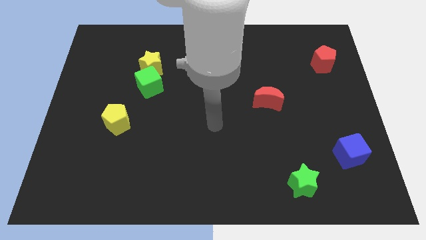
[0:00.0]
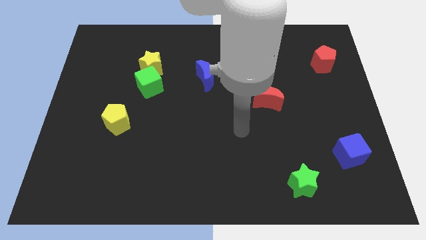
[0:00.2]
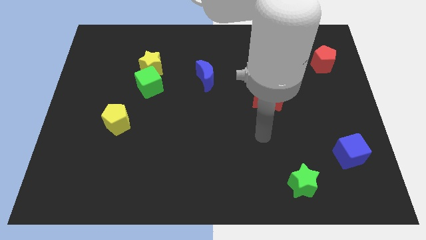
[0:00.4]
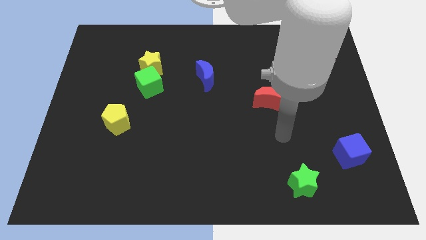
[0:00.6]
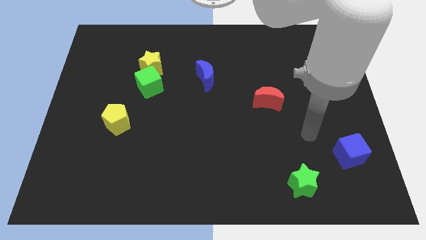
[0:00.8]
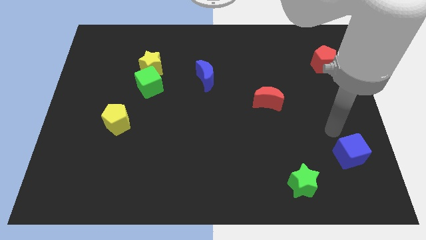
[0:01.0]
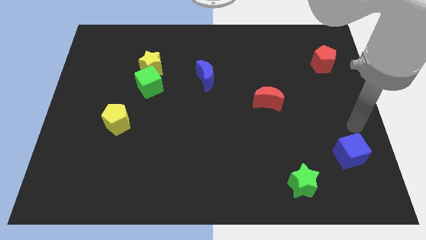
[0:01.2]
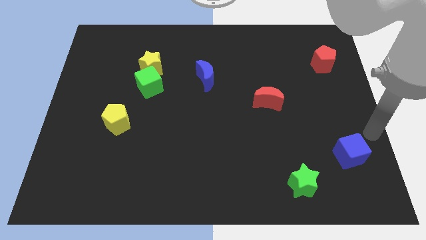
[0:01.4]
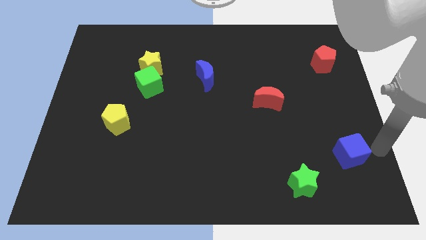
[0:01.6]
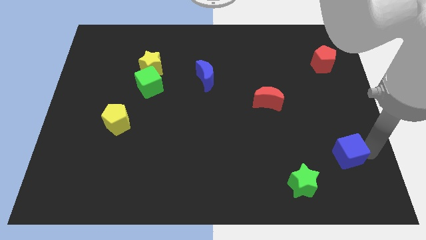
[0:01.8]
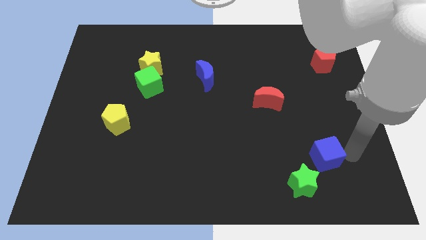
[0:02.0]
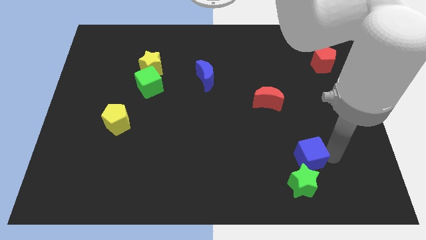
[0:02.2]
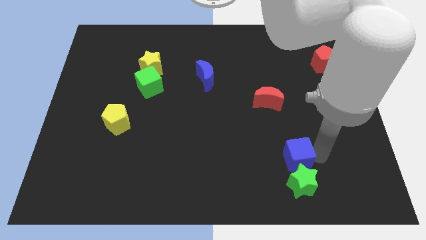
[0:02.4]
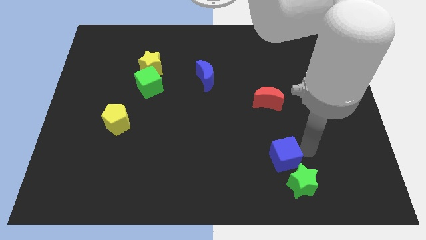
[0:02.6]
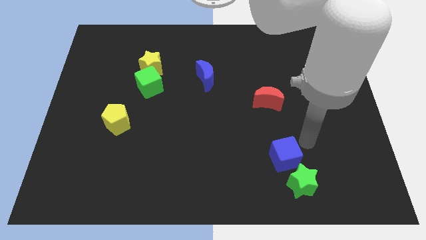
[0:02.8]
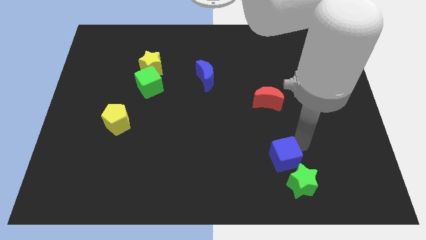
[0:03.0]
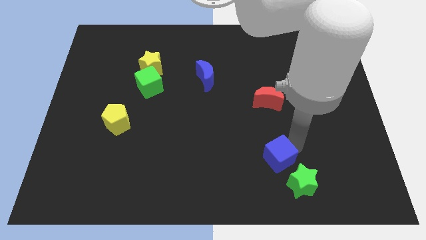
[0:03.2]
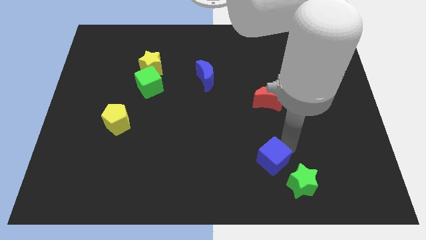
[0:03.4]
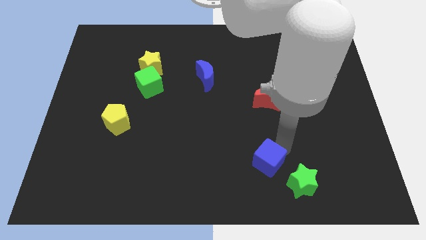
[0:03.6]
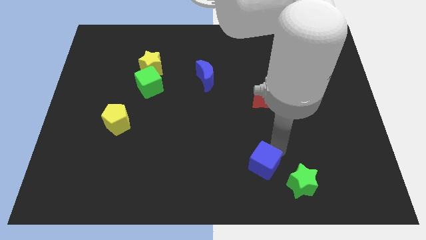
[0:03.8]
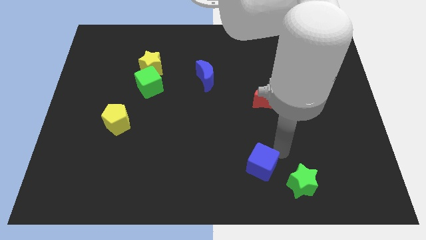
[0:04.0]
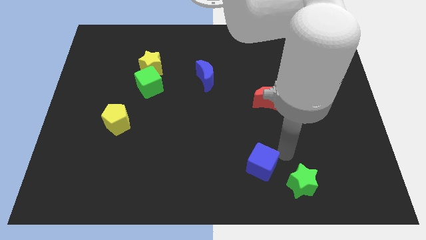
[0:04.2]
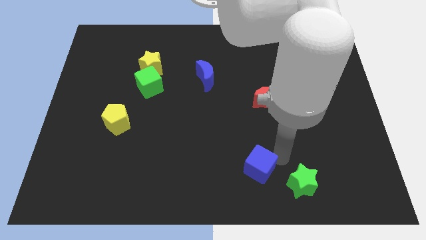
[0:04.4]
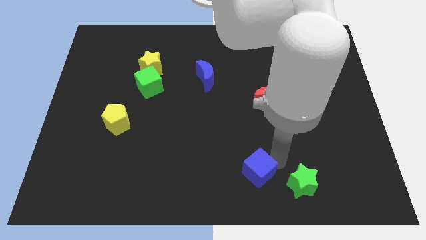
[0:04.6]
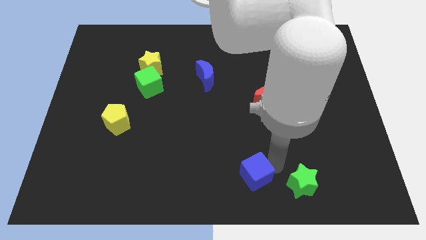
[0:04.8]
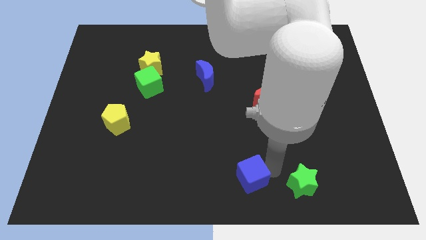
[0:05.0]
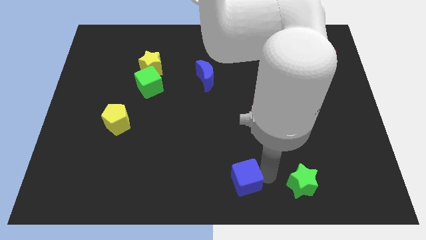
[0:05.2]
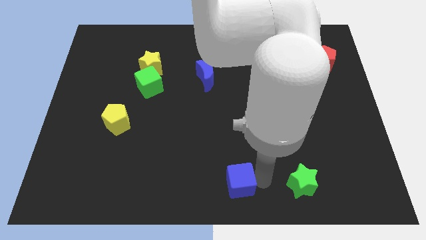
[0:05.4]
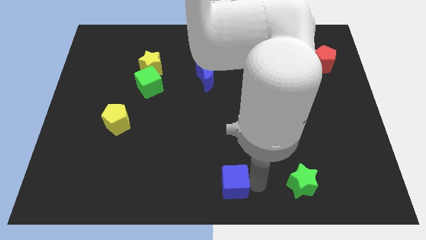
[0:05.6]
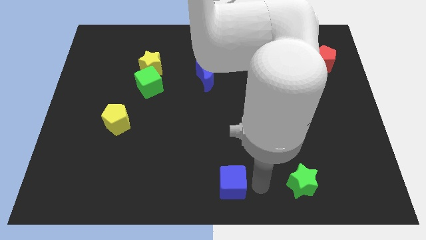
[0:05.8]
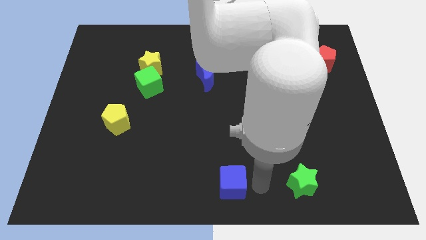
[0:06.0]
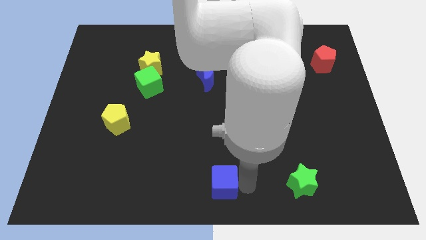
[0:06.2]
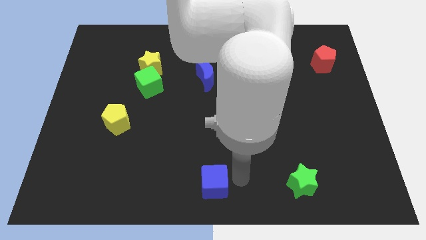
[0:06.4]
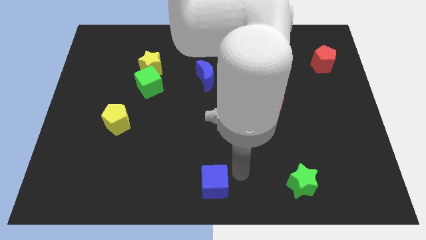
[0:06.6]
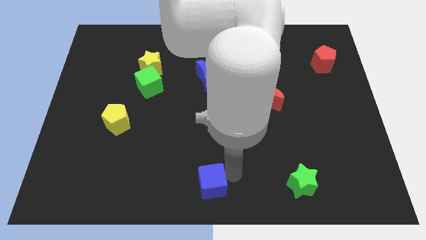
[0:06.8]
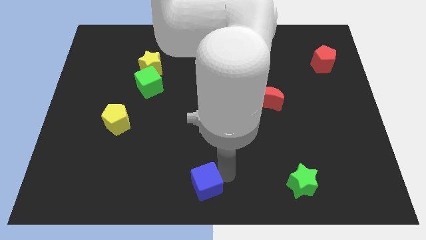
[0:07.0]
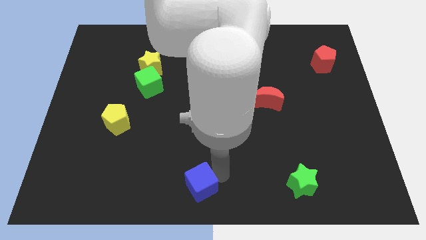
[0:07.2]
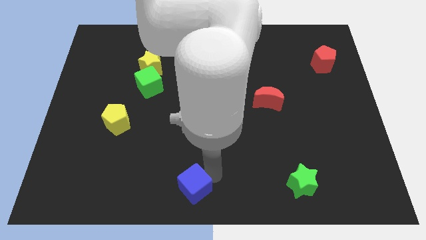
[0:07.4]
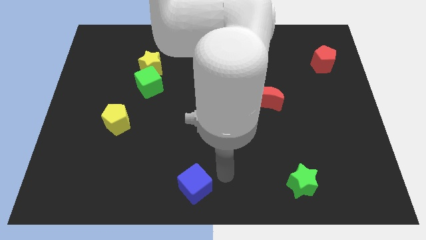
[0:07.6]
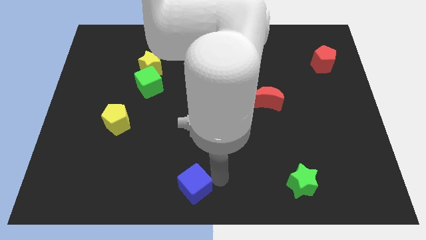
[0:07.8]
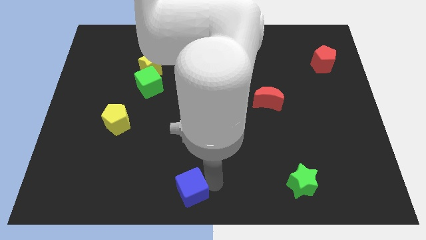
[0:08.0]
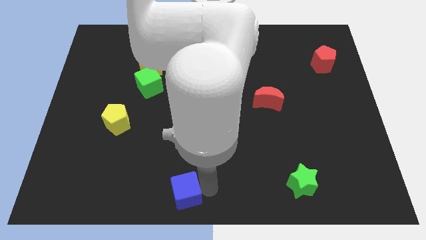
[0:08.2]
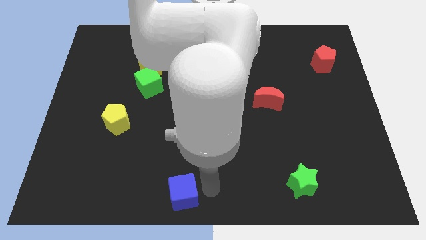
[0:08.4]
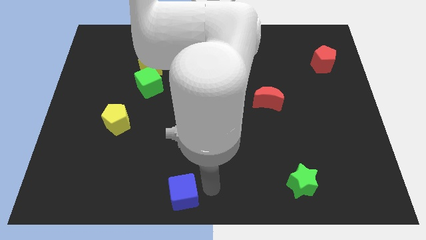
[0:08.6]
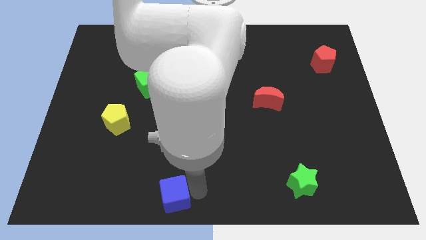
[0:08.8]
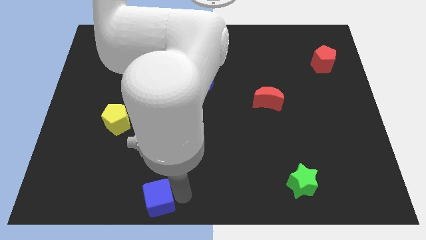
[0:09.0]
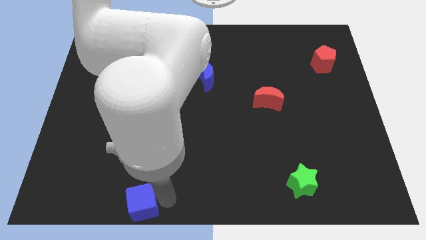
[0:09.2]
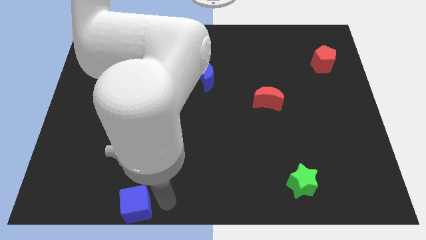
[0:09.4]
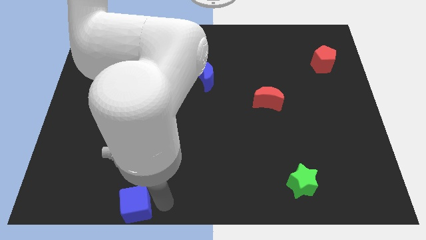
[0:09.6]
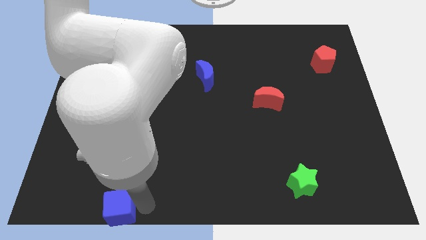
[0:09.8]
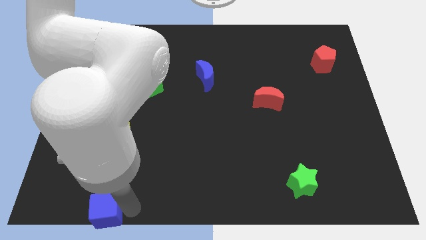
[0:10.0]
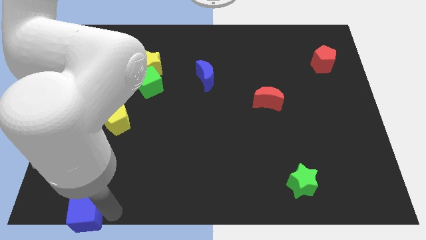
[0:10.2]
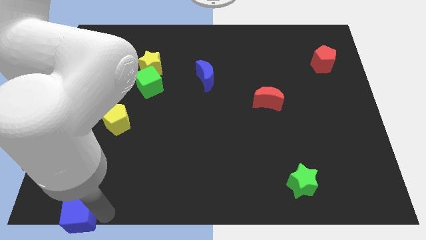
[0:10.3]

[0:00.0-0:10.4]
push the blue cube to the lower left corner

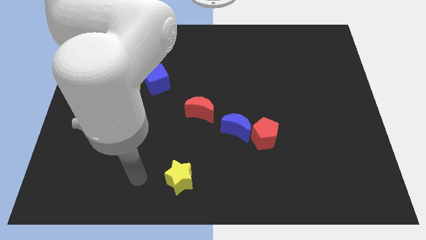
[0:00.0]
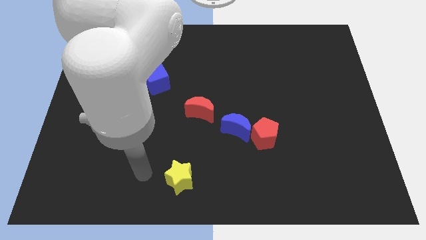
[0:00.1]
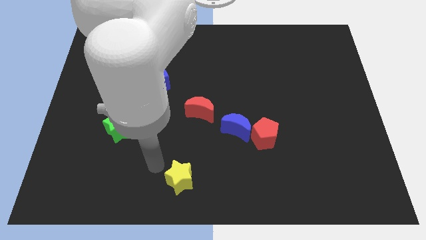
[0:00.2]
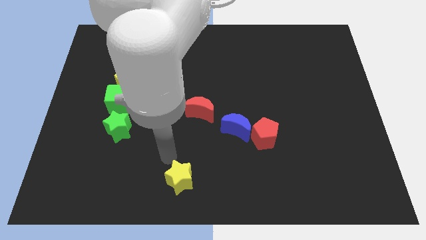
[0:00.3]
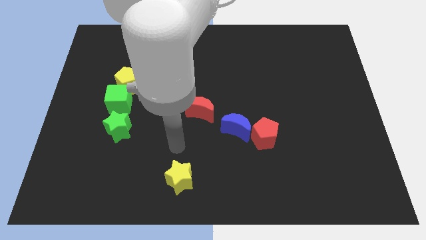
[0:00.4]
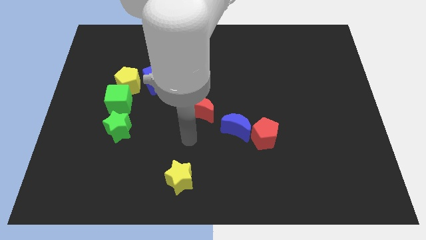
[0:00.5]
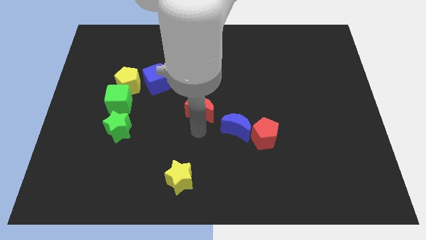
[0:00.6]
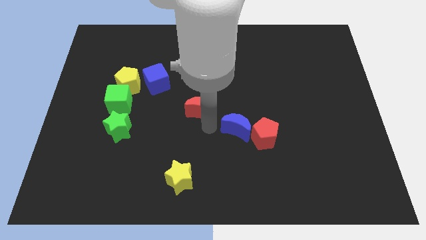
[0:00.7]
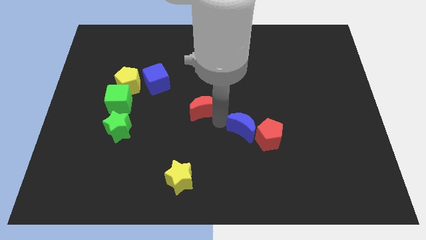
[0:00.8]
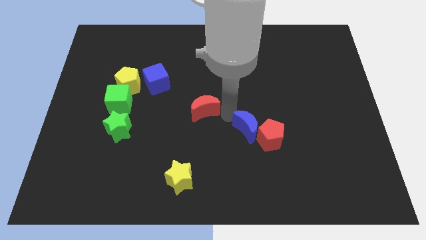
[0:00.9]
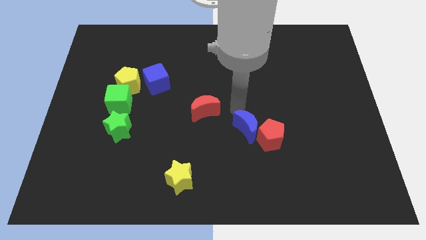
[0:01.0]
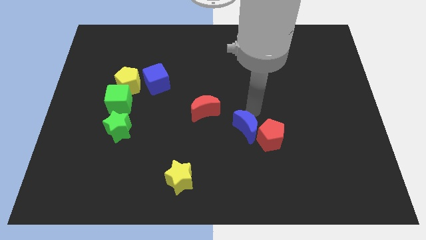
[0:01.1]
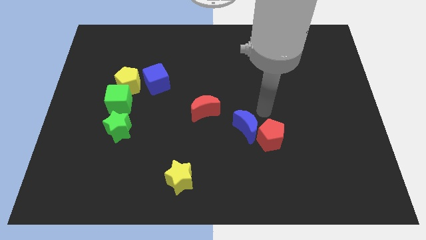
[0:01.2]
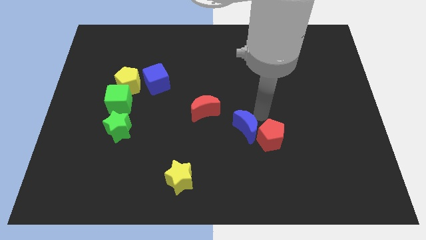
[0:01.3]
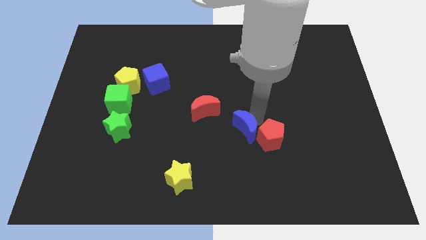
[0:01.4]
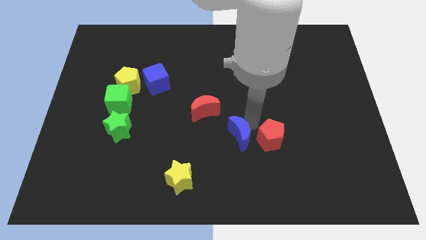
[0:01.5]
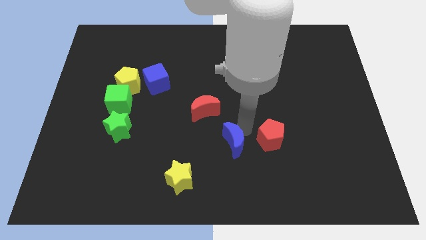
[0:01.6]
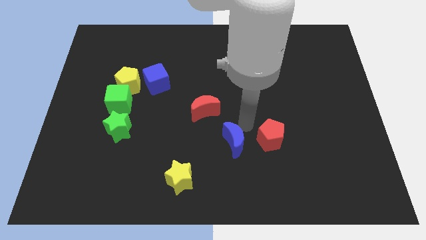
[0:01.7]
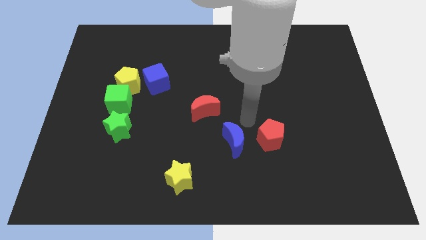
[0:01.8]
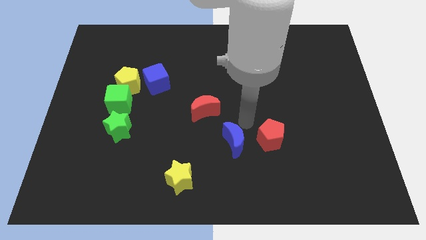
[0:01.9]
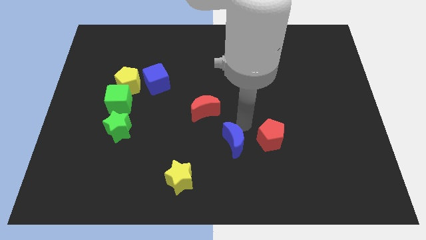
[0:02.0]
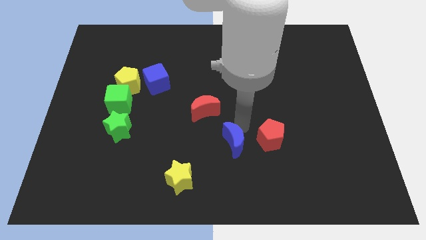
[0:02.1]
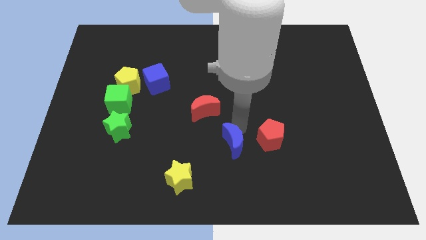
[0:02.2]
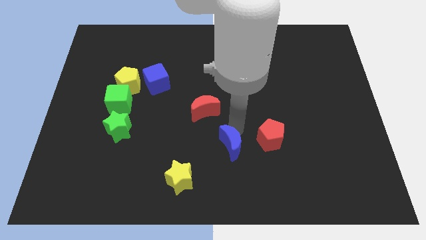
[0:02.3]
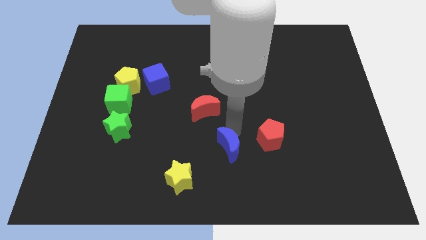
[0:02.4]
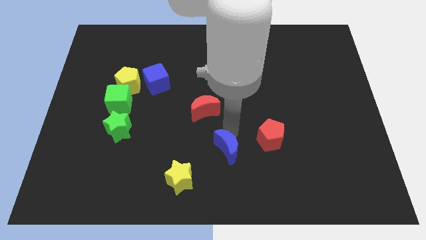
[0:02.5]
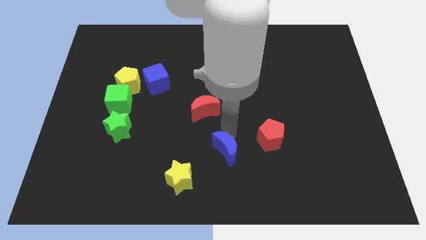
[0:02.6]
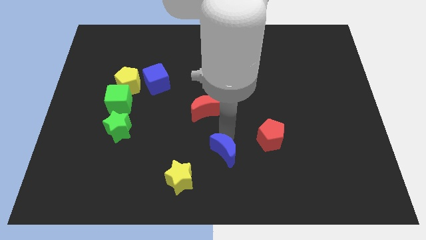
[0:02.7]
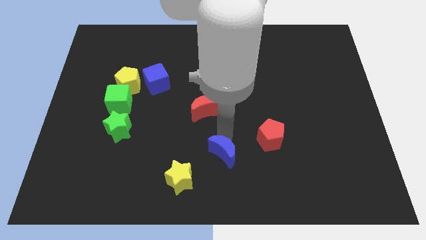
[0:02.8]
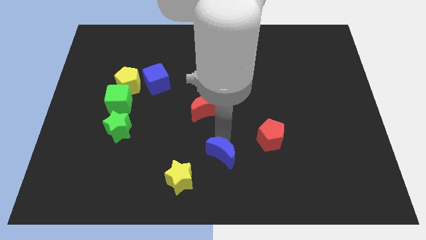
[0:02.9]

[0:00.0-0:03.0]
move the blue moon to the bottom side
